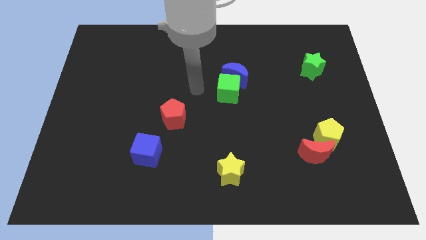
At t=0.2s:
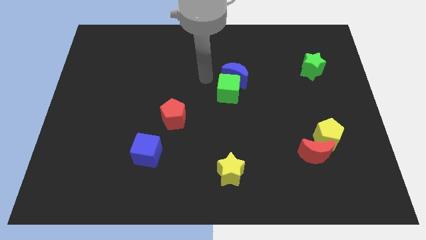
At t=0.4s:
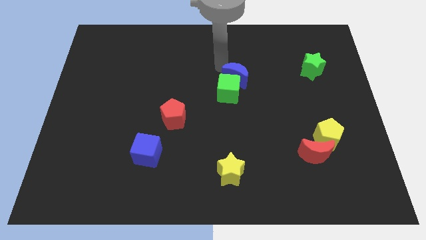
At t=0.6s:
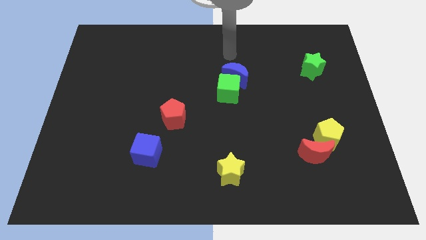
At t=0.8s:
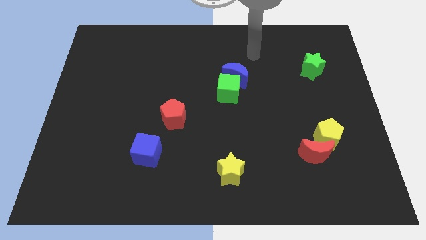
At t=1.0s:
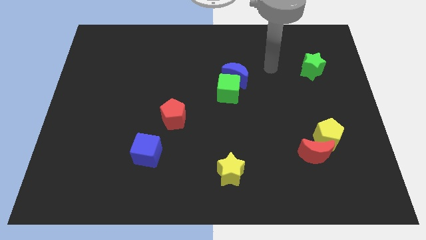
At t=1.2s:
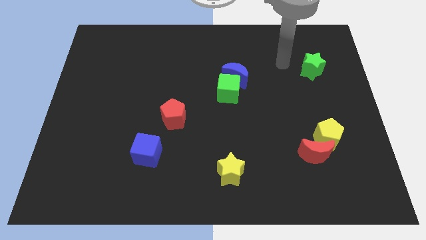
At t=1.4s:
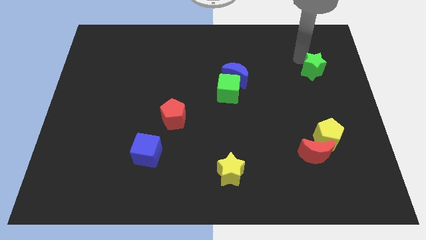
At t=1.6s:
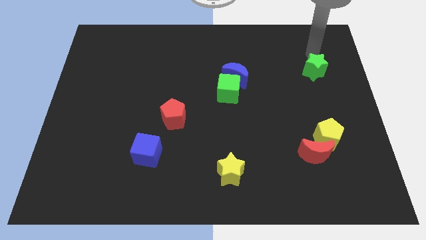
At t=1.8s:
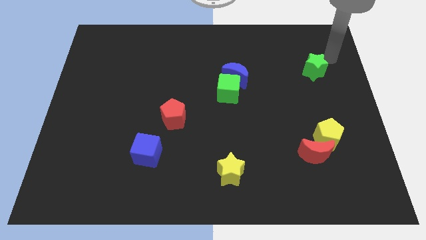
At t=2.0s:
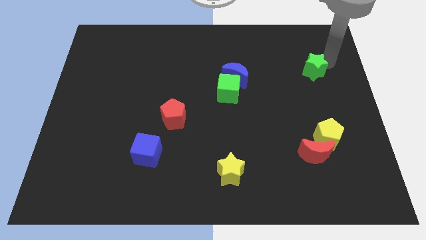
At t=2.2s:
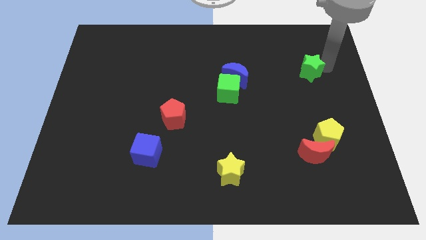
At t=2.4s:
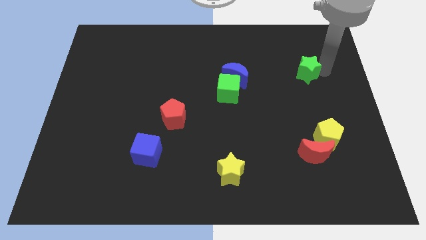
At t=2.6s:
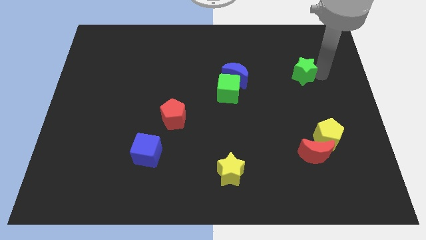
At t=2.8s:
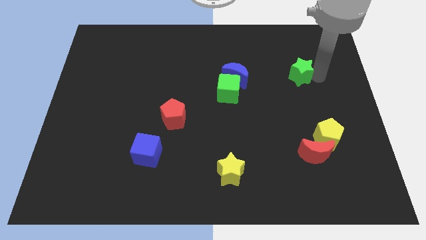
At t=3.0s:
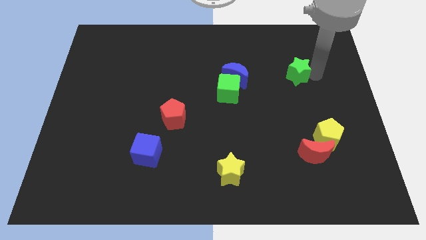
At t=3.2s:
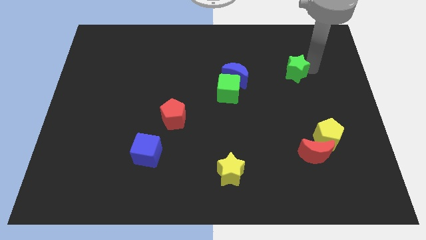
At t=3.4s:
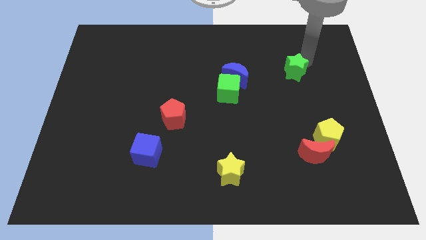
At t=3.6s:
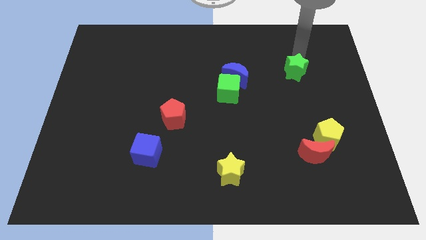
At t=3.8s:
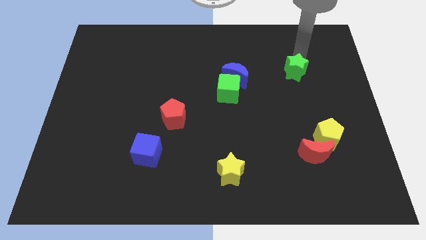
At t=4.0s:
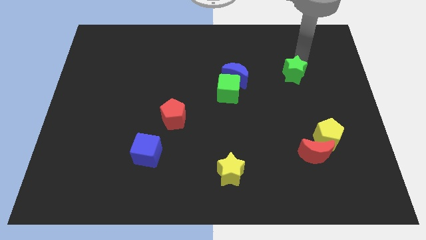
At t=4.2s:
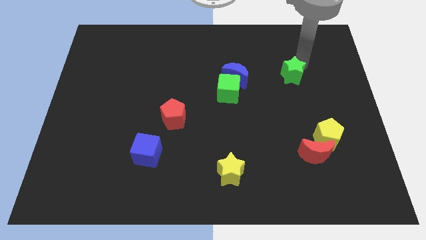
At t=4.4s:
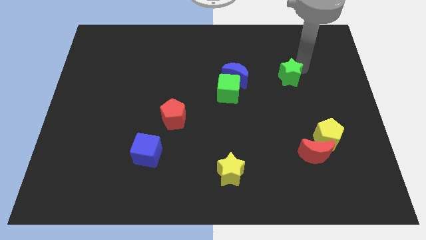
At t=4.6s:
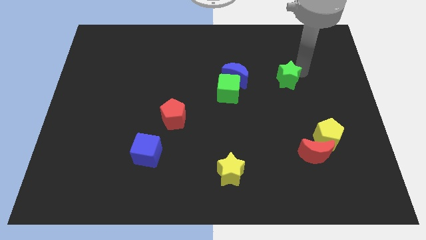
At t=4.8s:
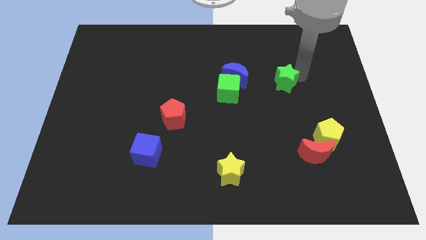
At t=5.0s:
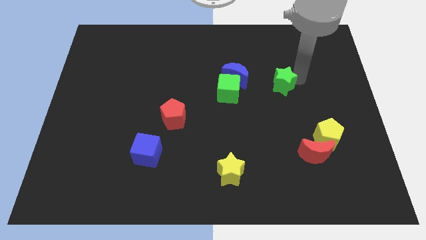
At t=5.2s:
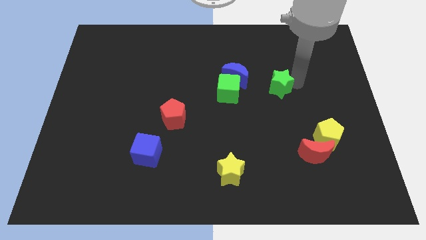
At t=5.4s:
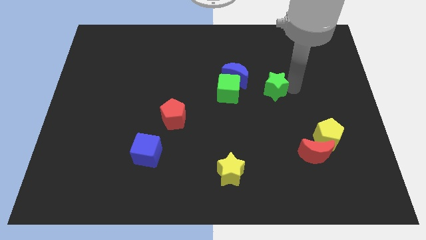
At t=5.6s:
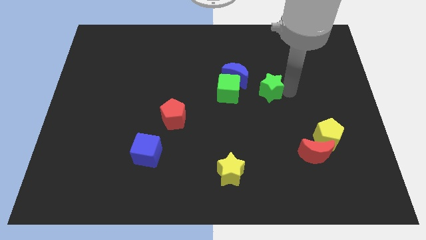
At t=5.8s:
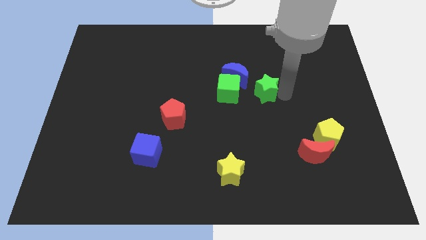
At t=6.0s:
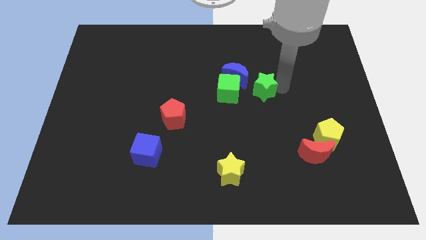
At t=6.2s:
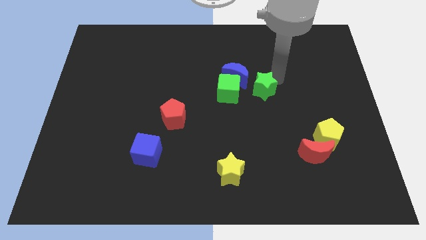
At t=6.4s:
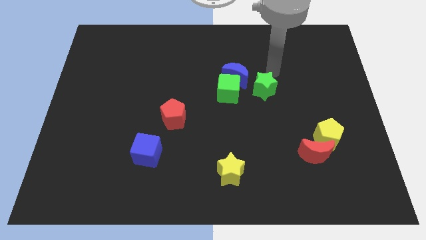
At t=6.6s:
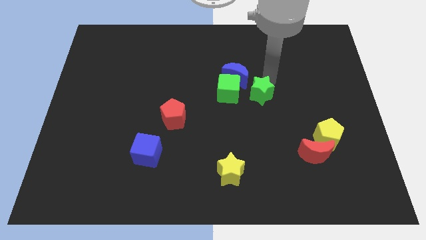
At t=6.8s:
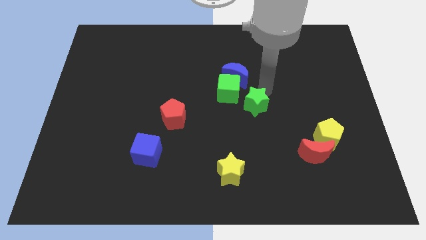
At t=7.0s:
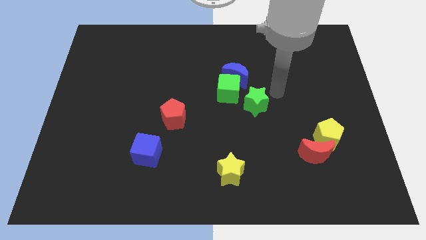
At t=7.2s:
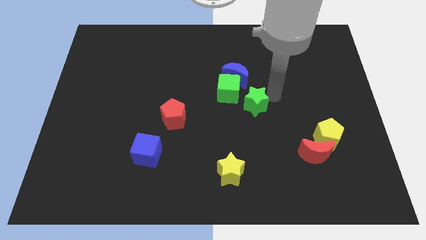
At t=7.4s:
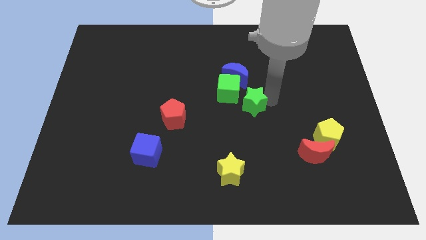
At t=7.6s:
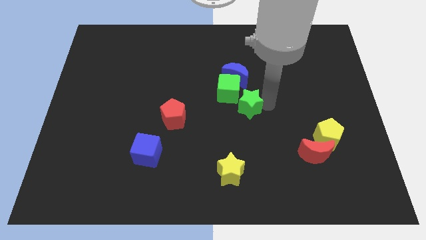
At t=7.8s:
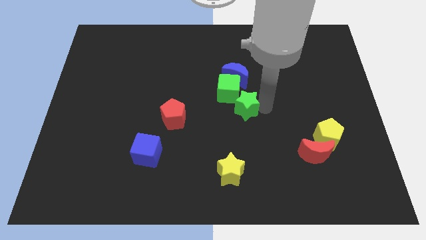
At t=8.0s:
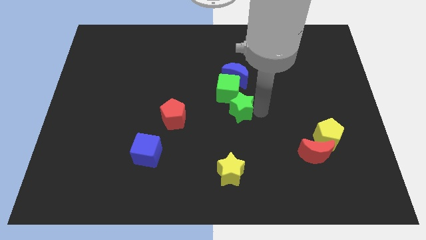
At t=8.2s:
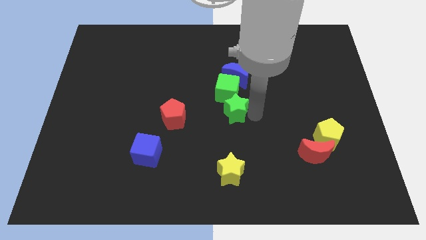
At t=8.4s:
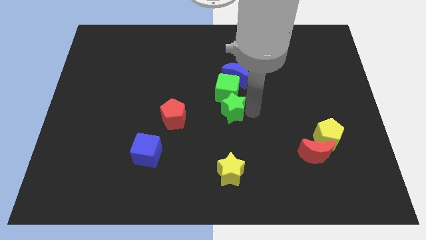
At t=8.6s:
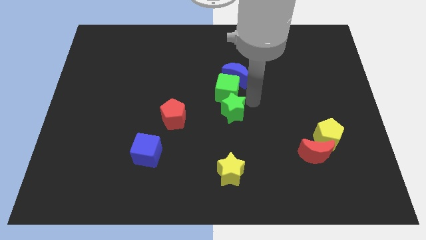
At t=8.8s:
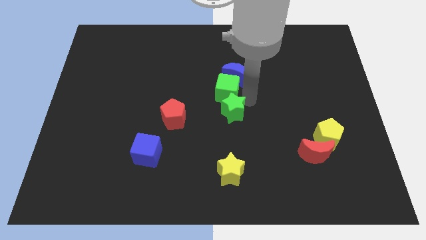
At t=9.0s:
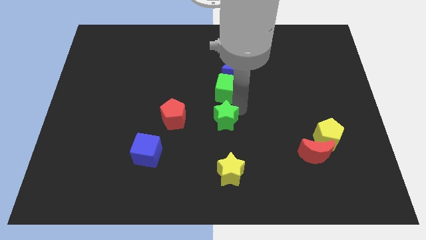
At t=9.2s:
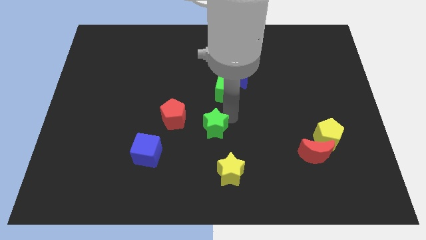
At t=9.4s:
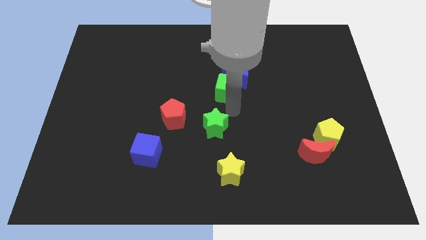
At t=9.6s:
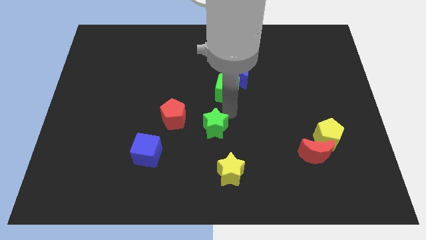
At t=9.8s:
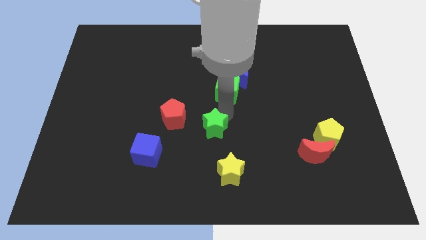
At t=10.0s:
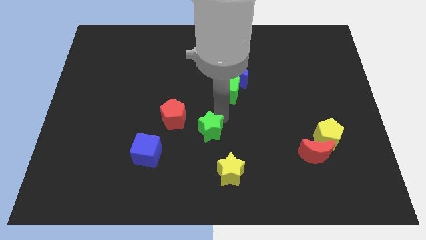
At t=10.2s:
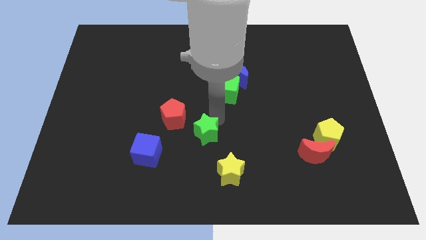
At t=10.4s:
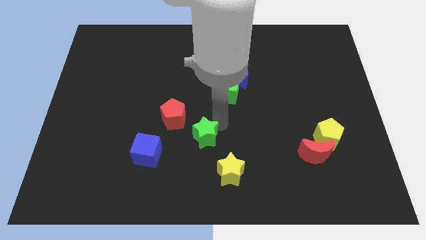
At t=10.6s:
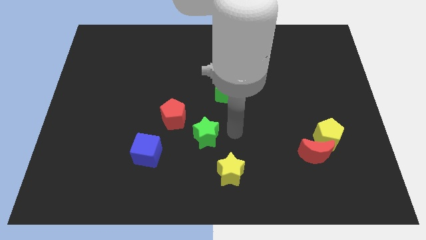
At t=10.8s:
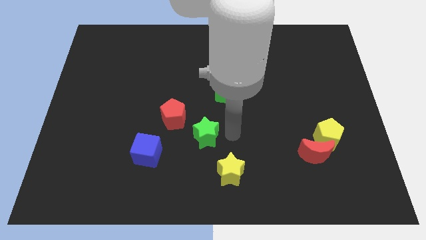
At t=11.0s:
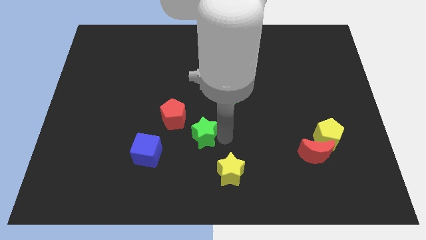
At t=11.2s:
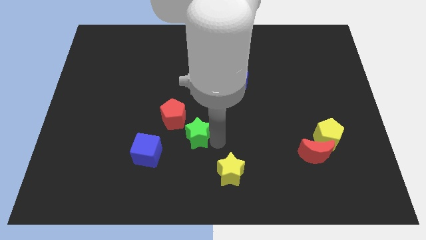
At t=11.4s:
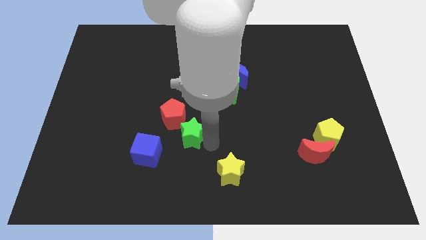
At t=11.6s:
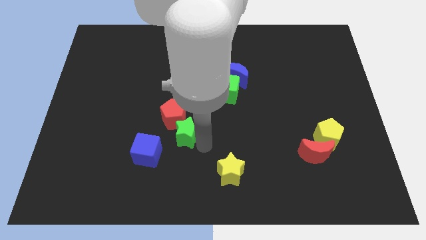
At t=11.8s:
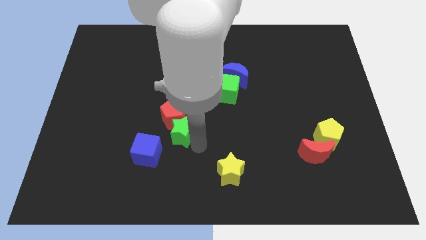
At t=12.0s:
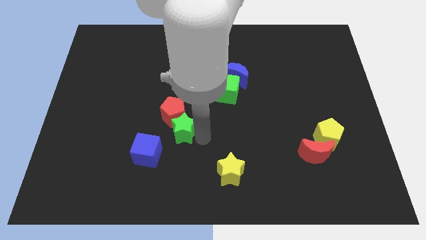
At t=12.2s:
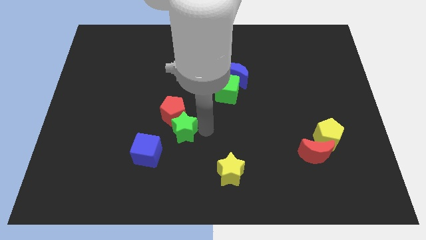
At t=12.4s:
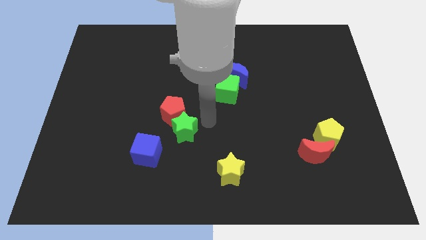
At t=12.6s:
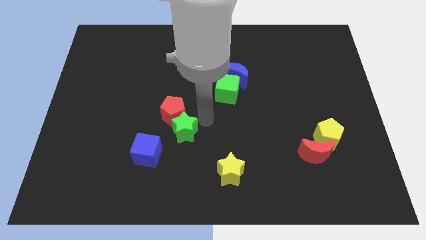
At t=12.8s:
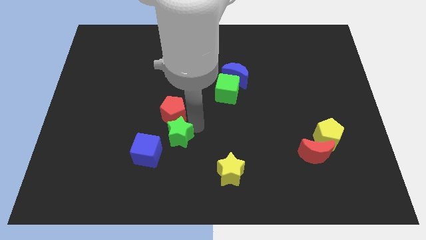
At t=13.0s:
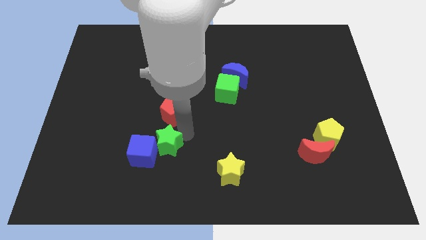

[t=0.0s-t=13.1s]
slide the green star to the blue cube
